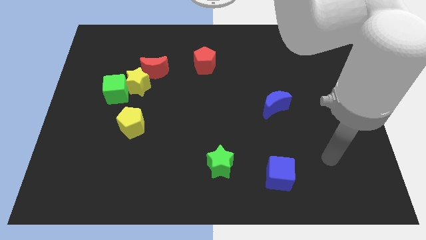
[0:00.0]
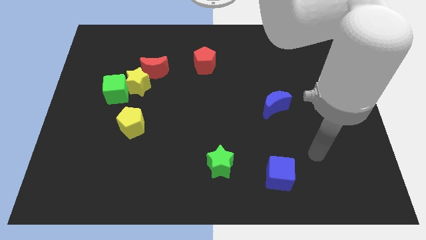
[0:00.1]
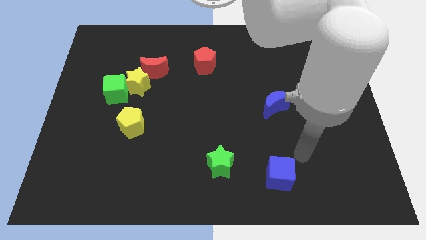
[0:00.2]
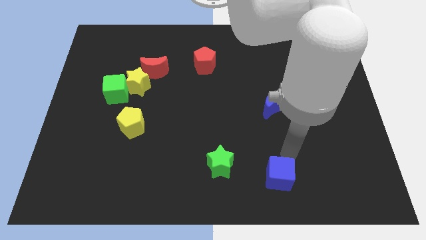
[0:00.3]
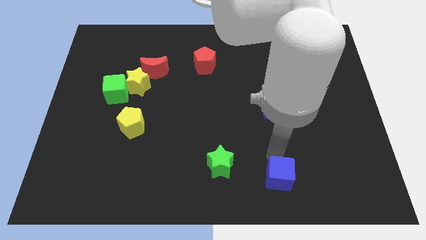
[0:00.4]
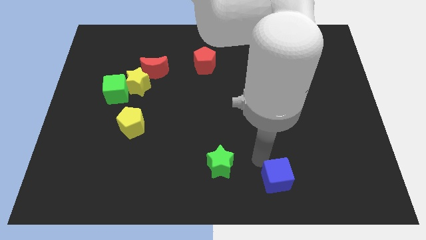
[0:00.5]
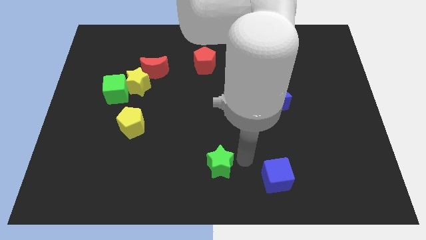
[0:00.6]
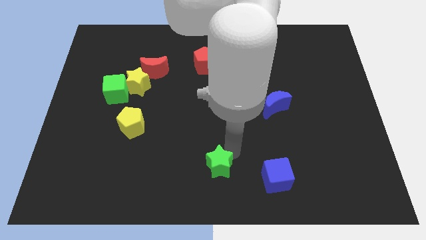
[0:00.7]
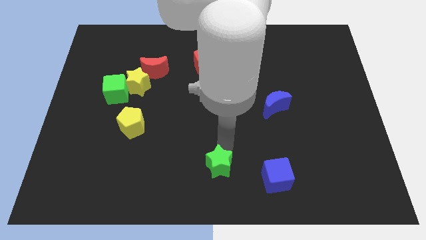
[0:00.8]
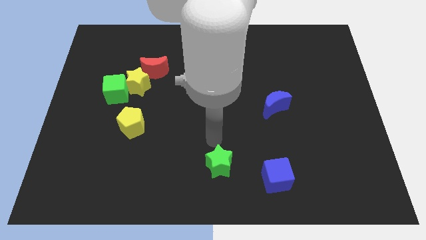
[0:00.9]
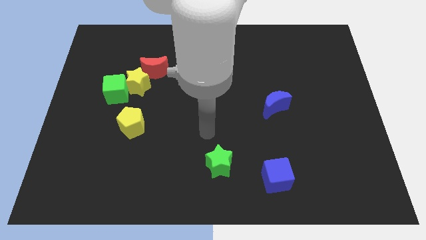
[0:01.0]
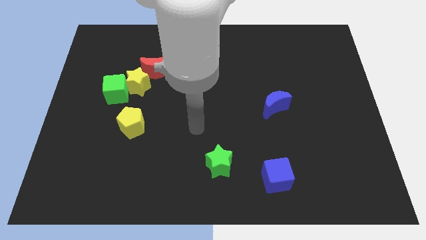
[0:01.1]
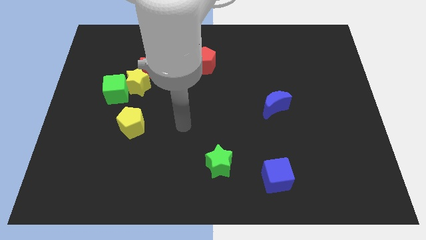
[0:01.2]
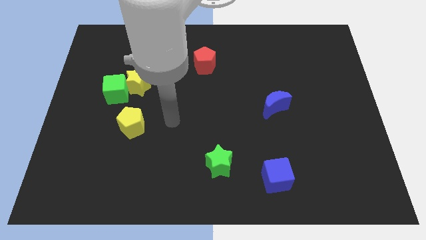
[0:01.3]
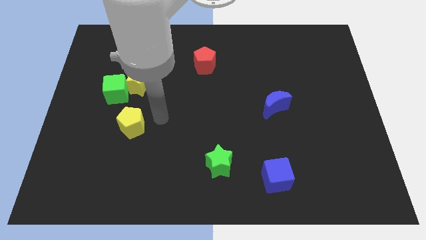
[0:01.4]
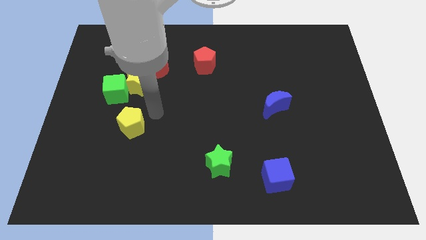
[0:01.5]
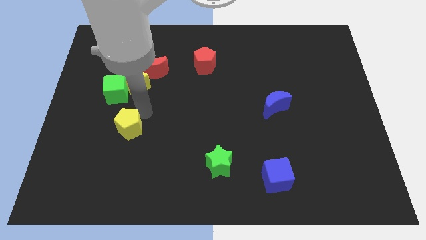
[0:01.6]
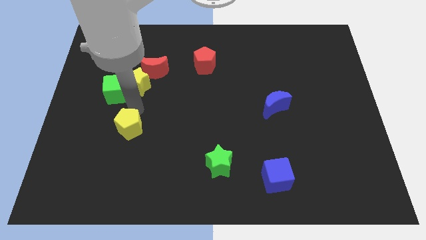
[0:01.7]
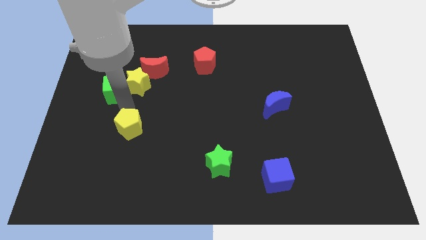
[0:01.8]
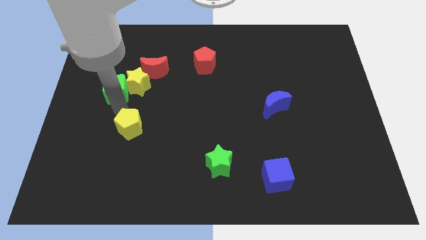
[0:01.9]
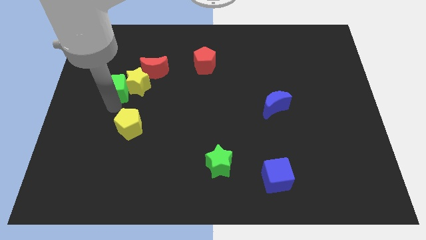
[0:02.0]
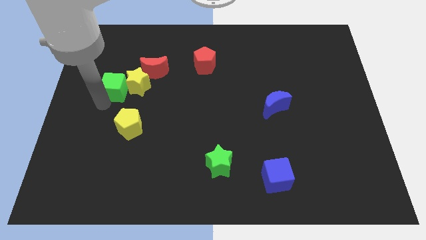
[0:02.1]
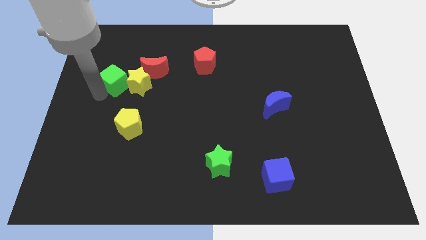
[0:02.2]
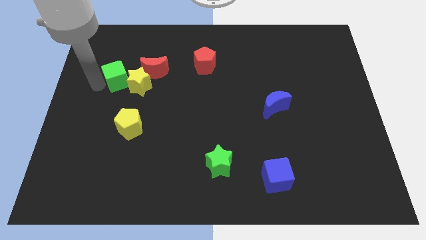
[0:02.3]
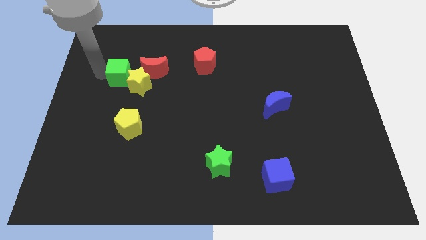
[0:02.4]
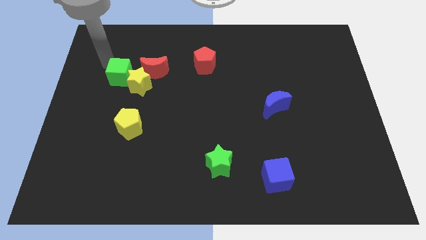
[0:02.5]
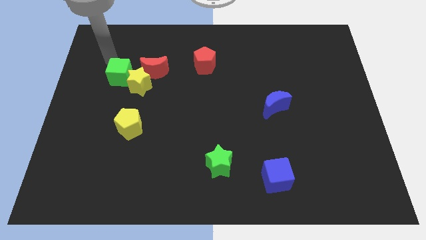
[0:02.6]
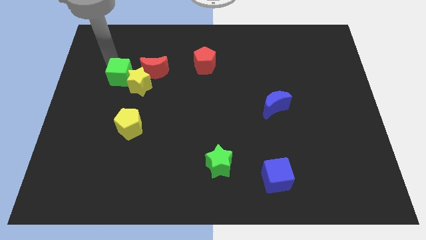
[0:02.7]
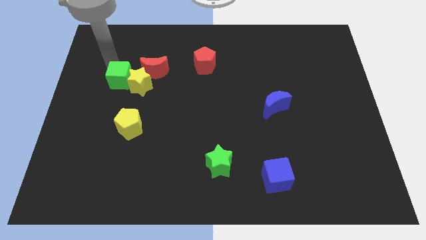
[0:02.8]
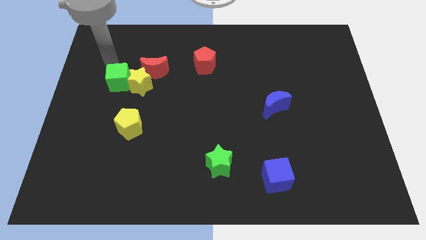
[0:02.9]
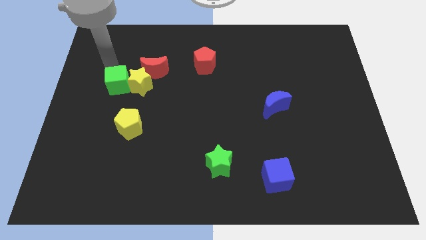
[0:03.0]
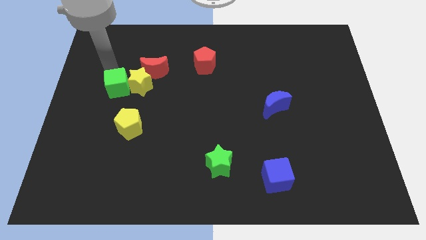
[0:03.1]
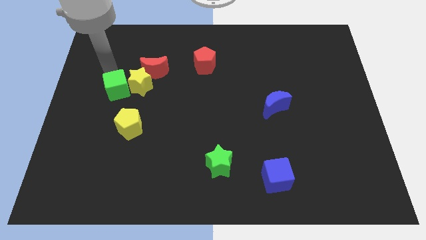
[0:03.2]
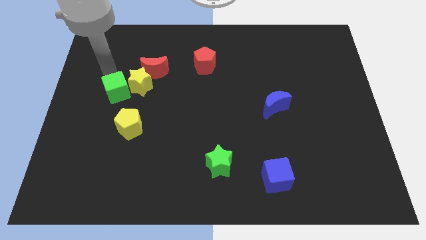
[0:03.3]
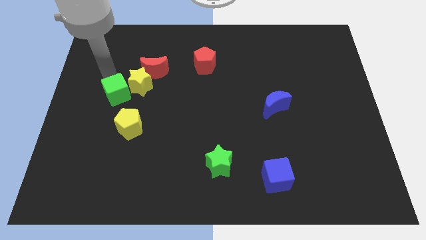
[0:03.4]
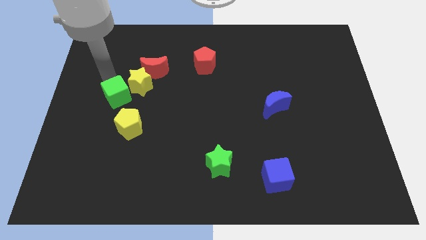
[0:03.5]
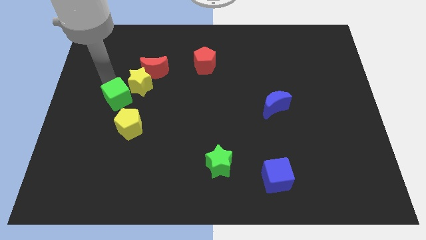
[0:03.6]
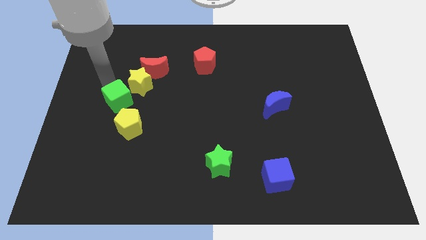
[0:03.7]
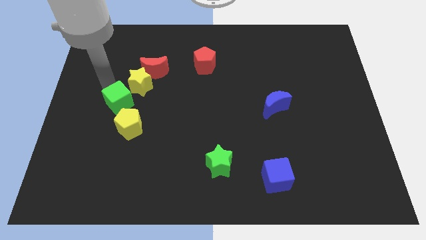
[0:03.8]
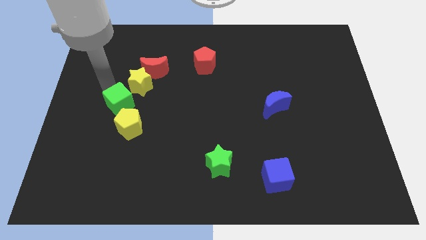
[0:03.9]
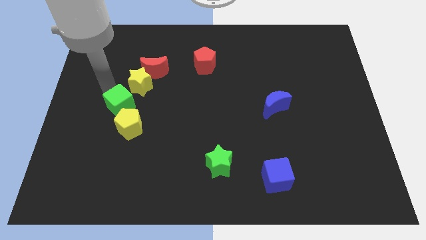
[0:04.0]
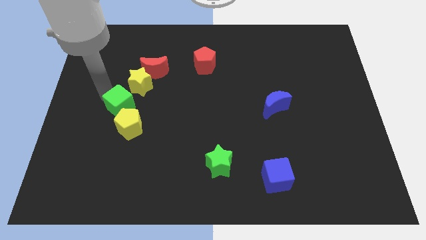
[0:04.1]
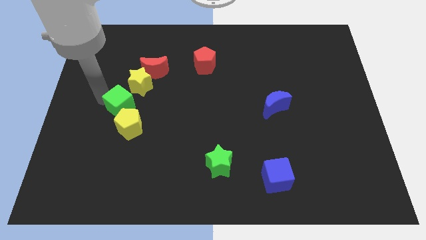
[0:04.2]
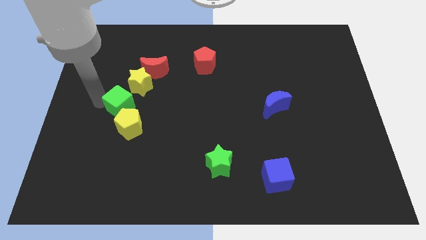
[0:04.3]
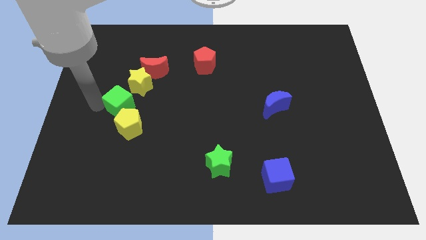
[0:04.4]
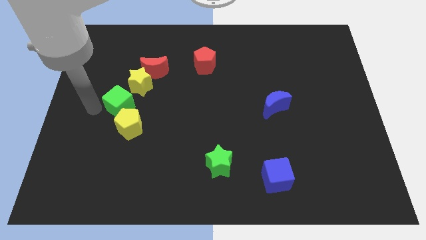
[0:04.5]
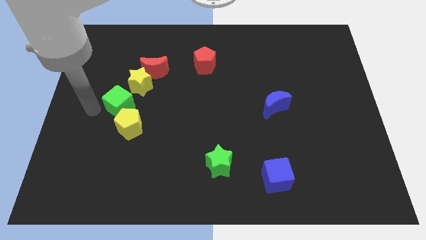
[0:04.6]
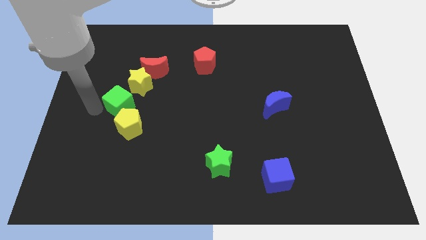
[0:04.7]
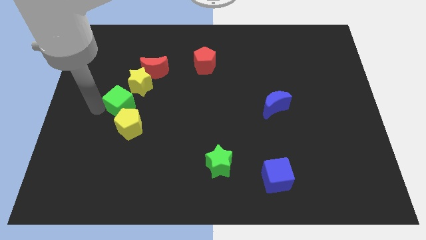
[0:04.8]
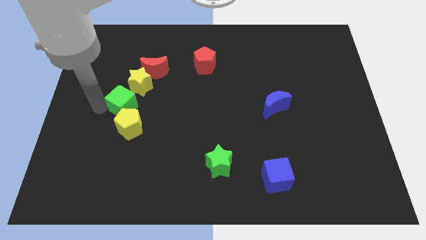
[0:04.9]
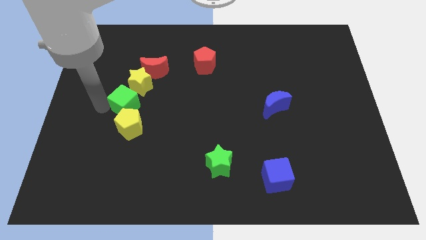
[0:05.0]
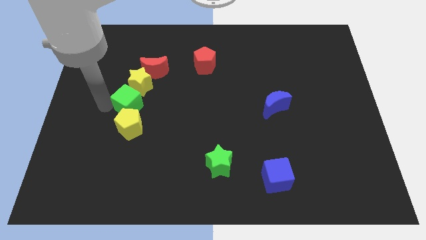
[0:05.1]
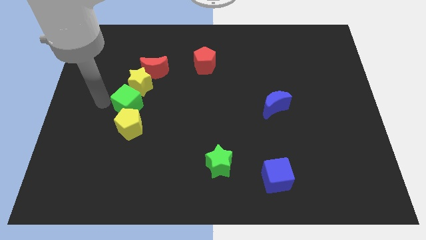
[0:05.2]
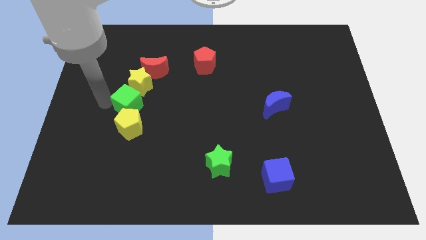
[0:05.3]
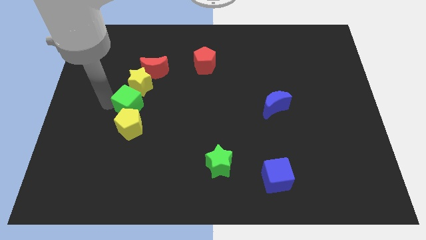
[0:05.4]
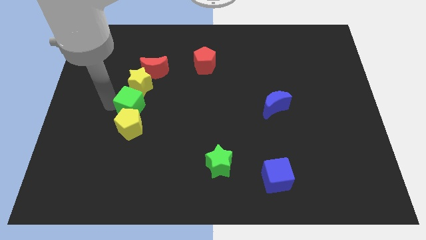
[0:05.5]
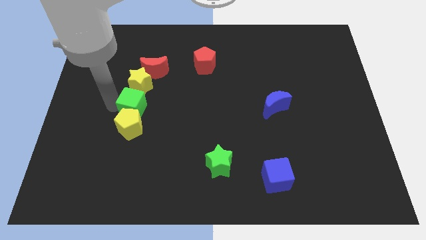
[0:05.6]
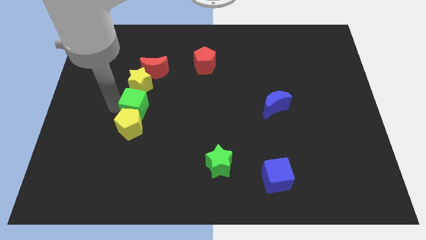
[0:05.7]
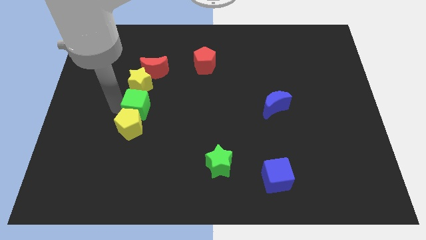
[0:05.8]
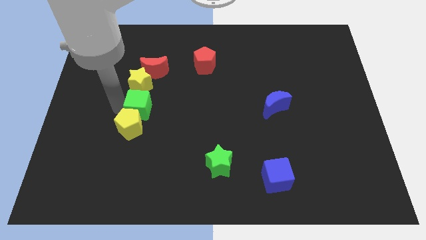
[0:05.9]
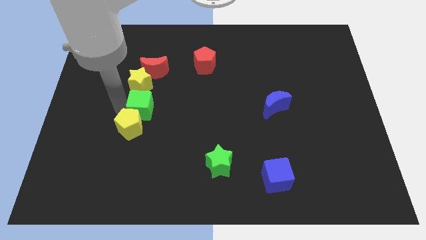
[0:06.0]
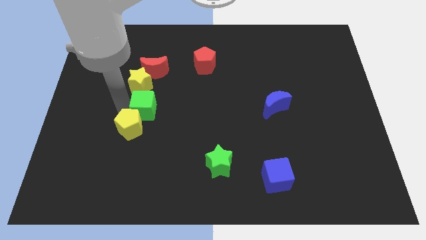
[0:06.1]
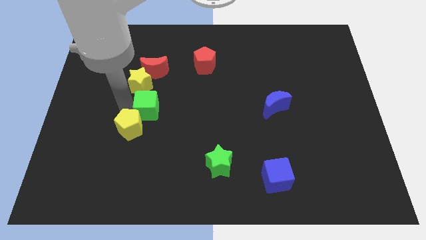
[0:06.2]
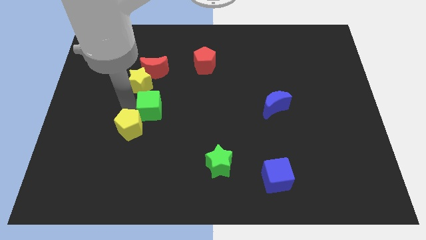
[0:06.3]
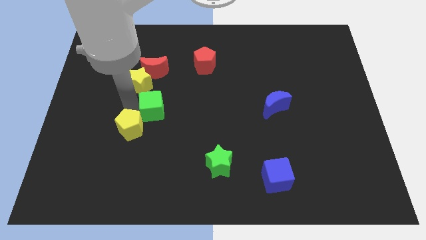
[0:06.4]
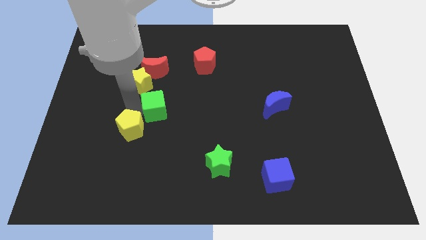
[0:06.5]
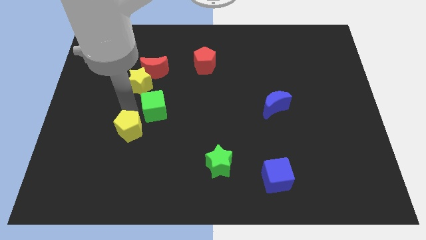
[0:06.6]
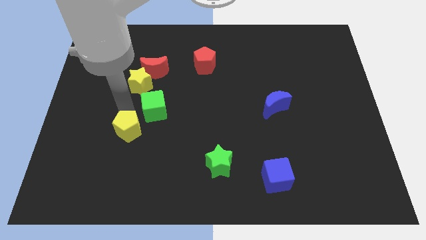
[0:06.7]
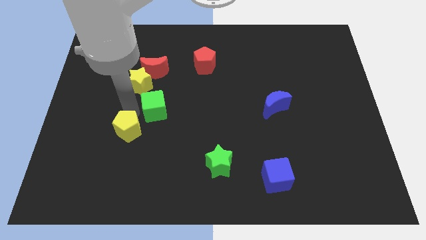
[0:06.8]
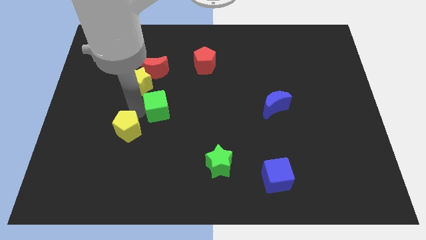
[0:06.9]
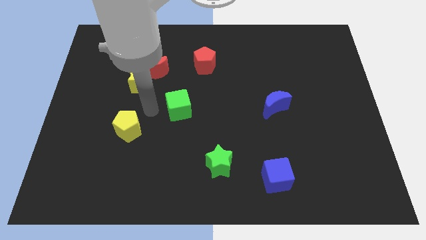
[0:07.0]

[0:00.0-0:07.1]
put the green cube to the center of the board
